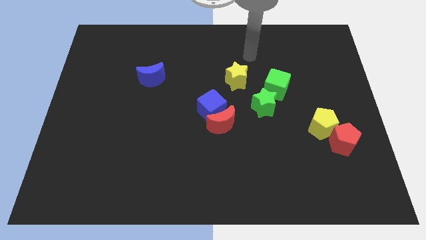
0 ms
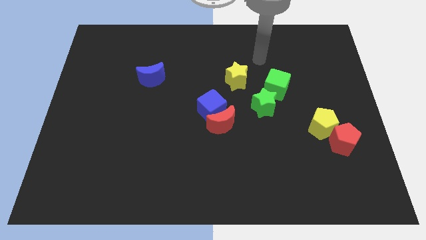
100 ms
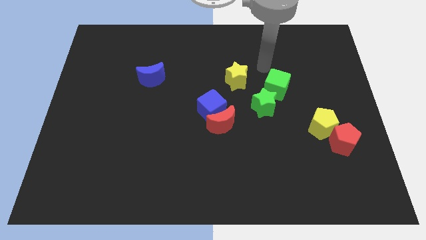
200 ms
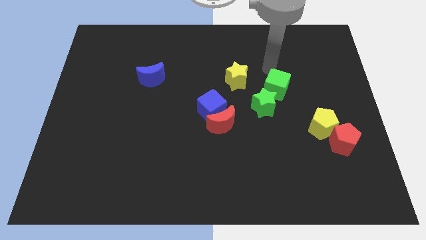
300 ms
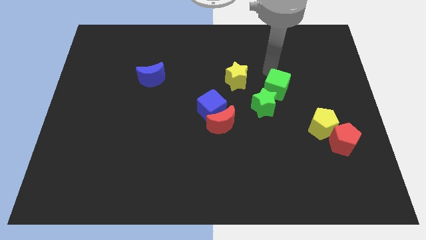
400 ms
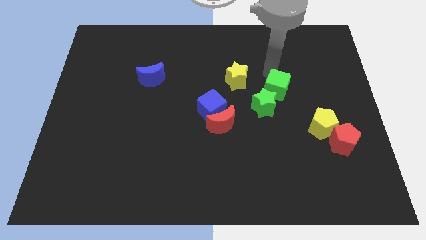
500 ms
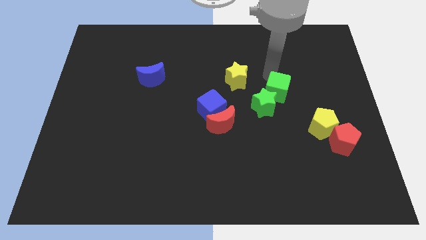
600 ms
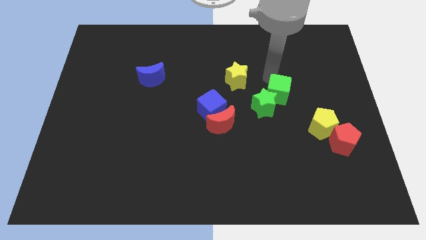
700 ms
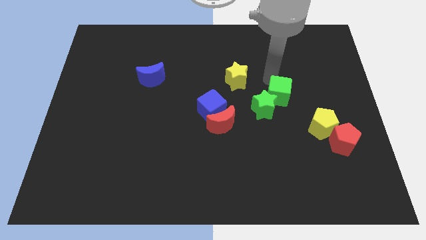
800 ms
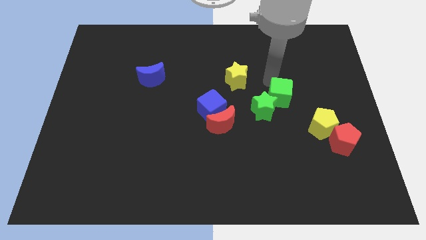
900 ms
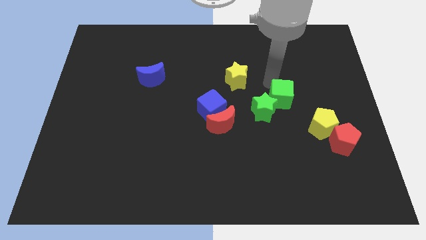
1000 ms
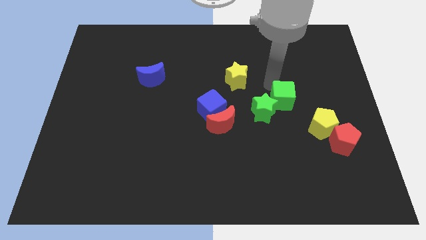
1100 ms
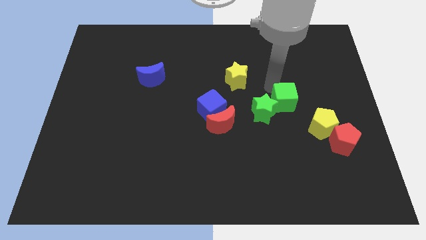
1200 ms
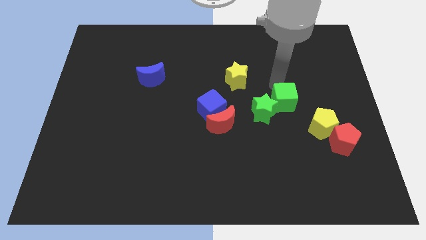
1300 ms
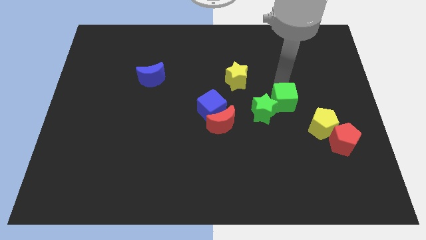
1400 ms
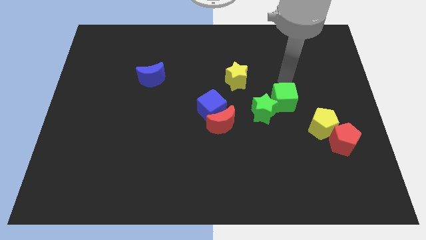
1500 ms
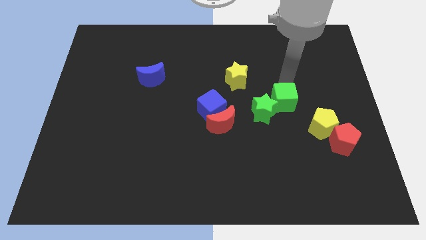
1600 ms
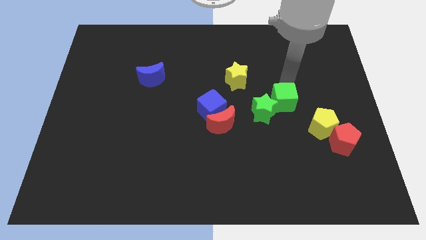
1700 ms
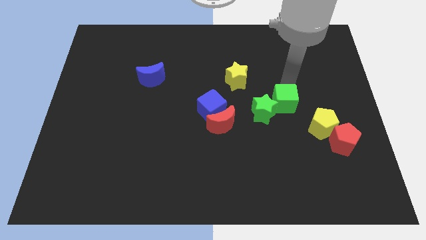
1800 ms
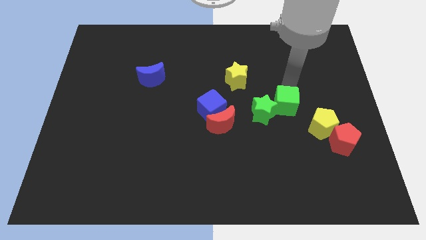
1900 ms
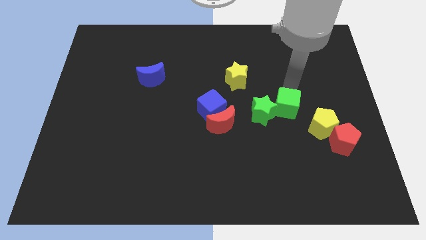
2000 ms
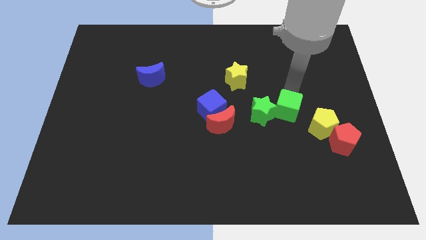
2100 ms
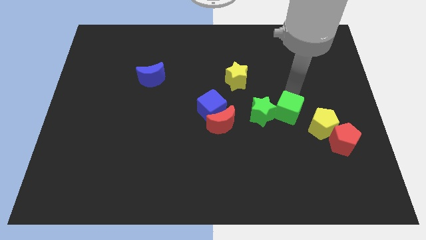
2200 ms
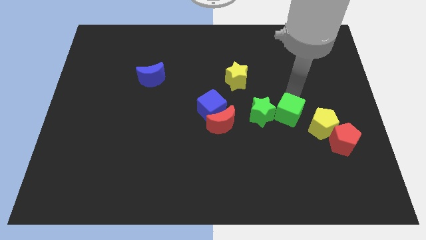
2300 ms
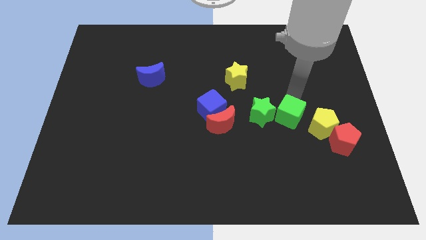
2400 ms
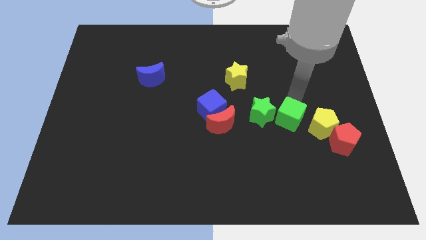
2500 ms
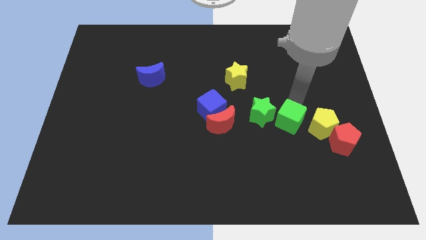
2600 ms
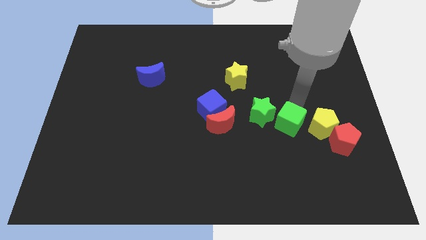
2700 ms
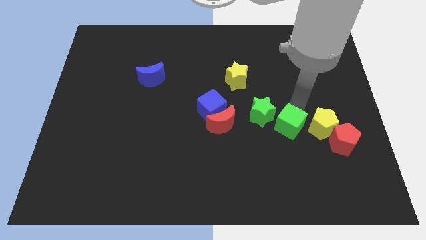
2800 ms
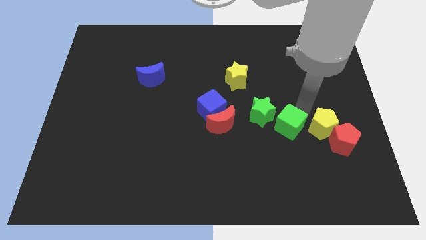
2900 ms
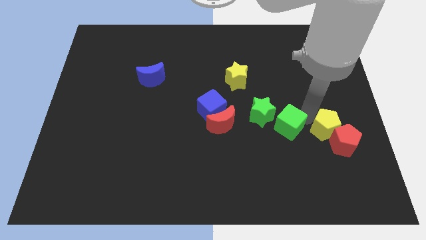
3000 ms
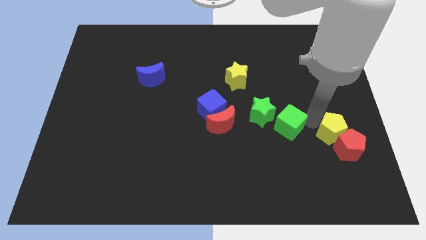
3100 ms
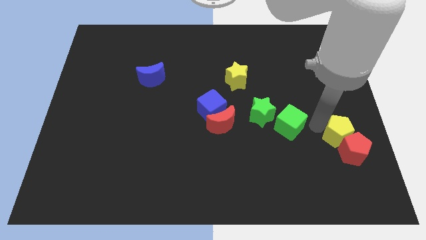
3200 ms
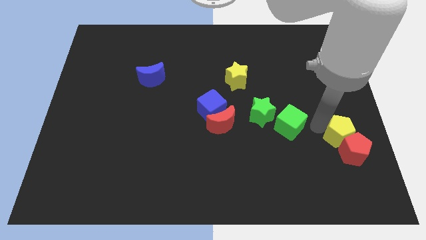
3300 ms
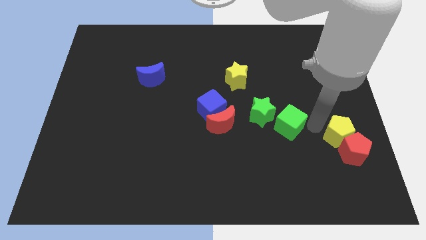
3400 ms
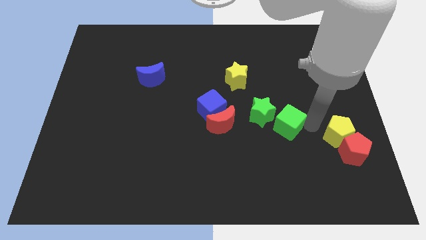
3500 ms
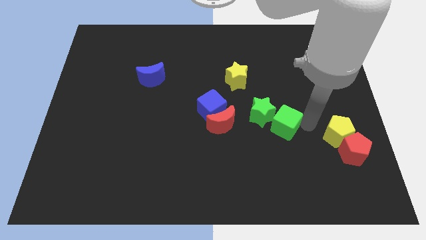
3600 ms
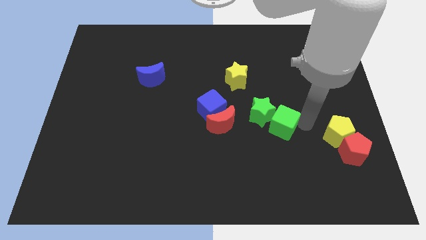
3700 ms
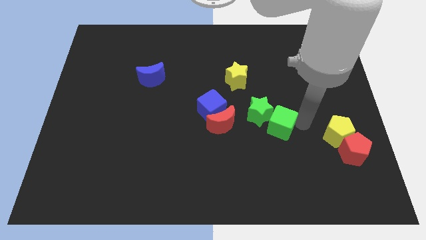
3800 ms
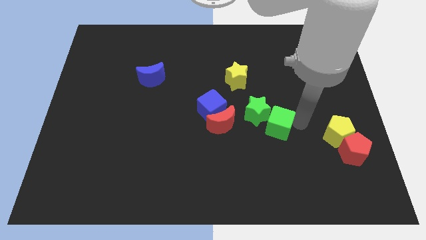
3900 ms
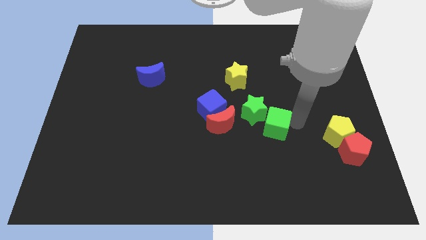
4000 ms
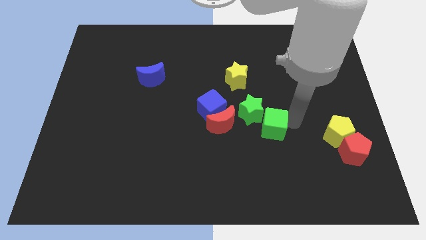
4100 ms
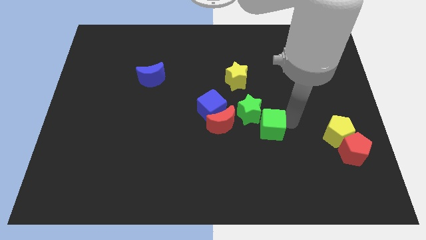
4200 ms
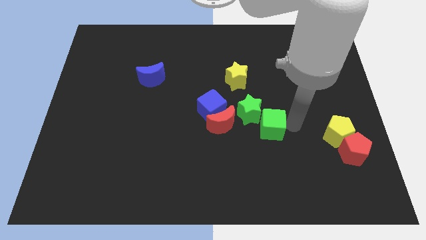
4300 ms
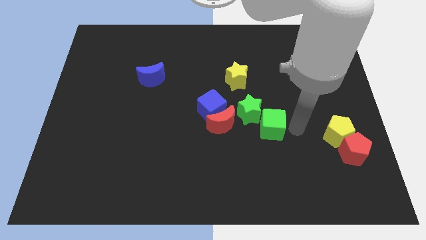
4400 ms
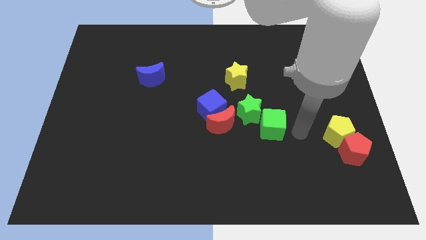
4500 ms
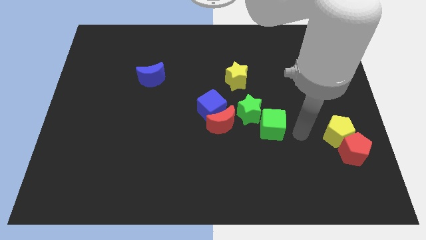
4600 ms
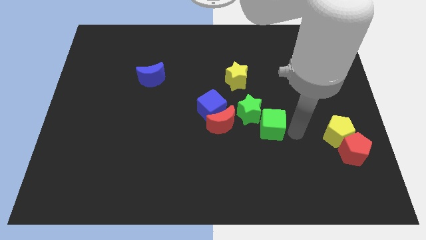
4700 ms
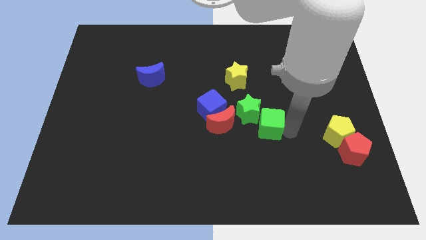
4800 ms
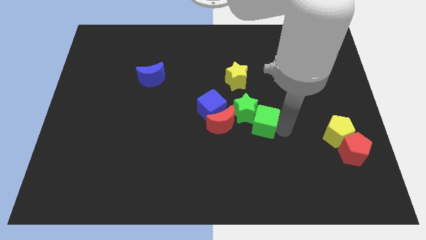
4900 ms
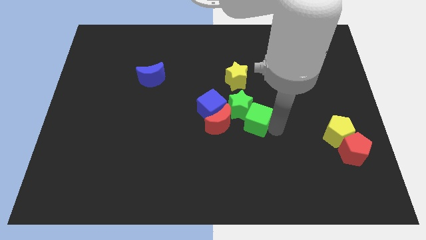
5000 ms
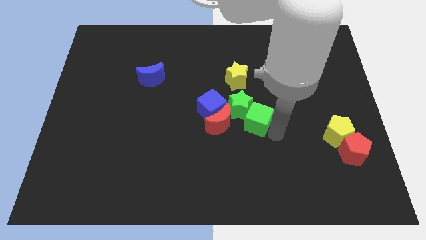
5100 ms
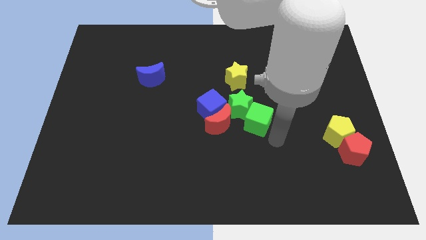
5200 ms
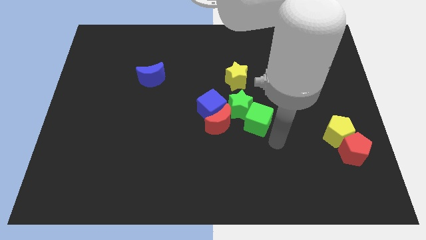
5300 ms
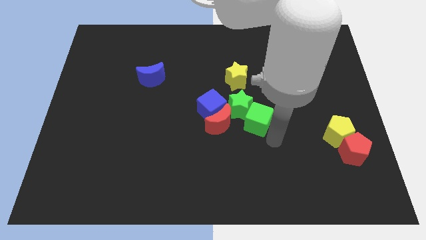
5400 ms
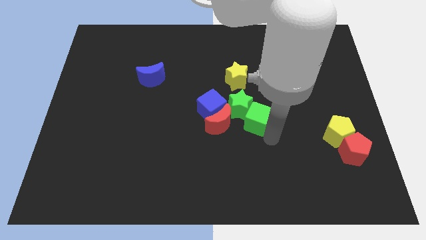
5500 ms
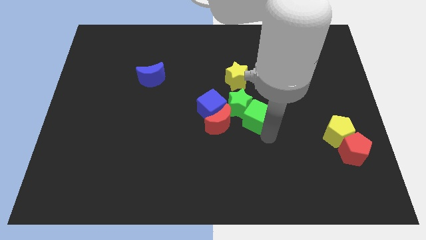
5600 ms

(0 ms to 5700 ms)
slide the green cube to the top right side of the red moon

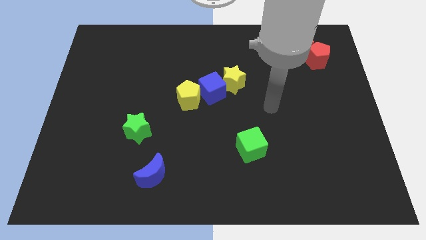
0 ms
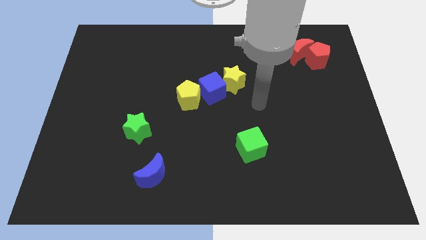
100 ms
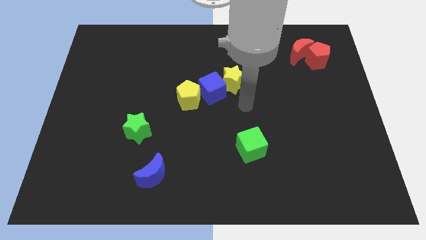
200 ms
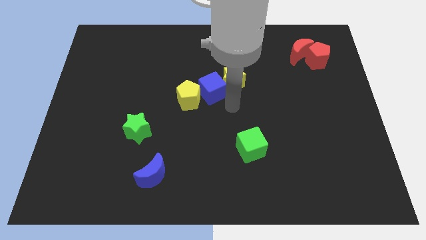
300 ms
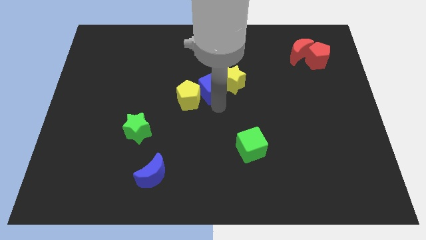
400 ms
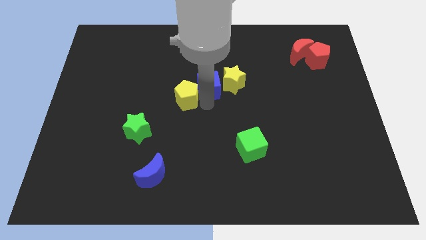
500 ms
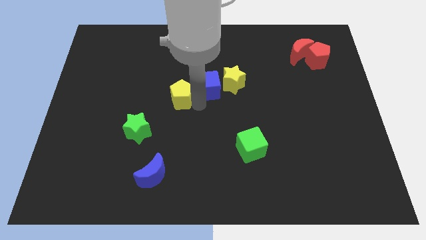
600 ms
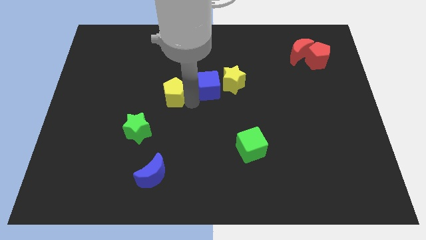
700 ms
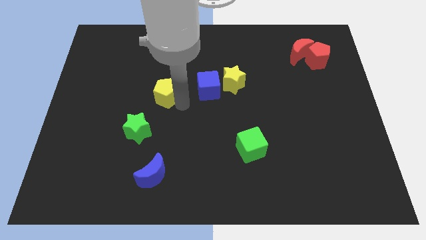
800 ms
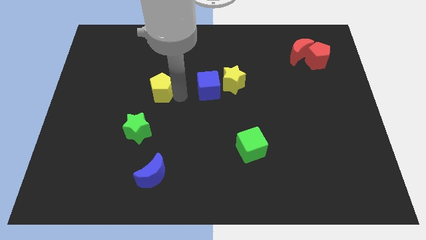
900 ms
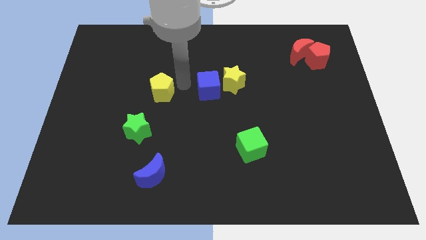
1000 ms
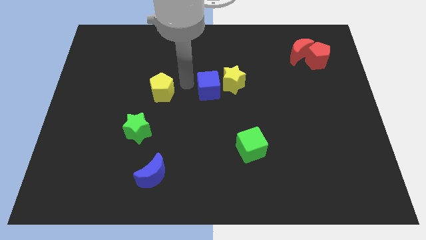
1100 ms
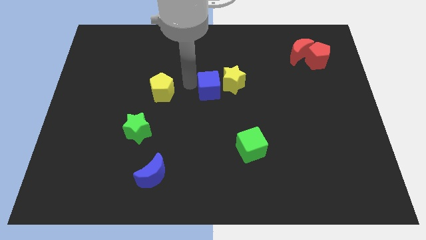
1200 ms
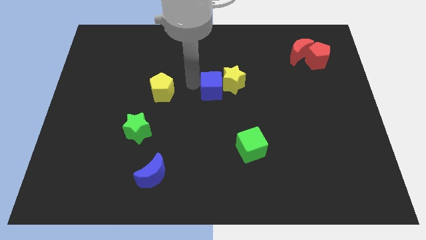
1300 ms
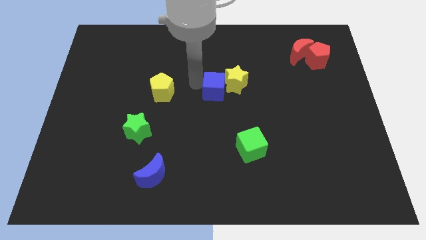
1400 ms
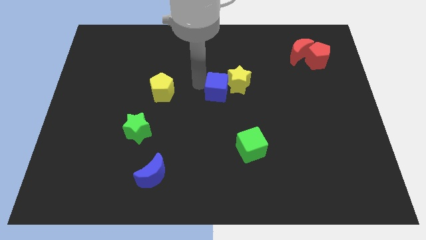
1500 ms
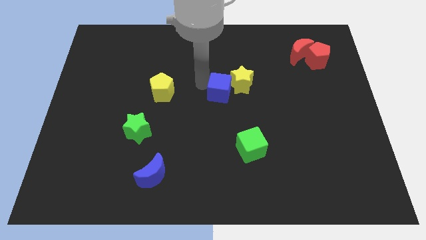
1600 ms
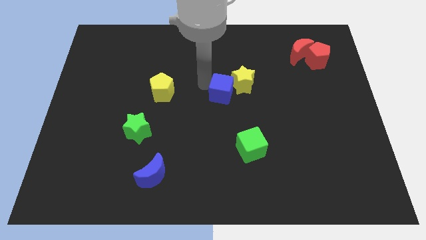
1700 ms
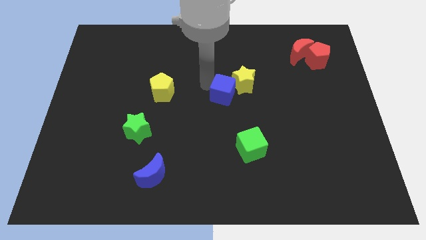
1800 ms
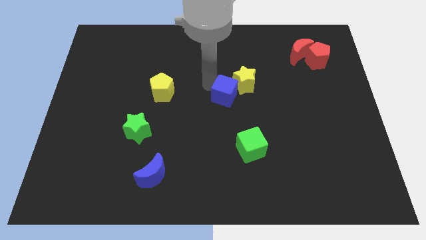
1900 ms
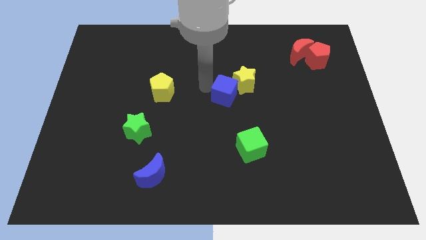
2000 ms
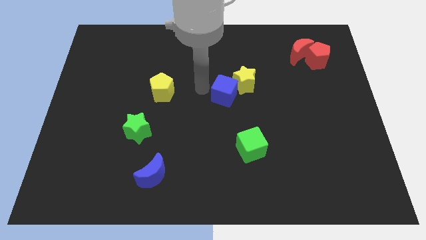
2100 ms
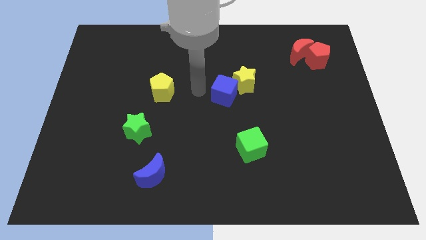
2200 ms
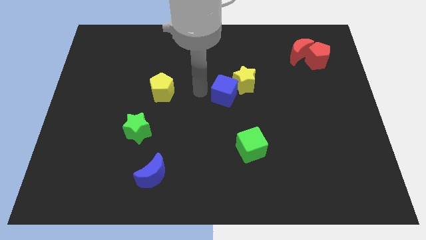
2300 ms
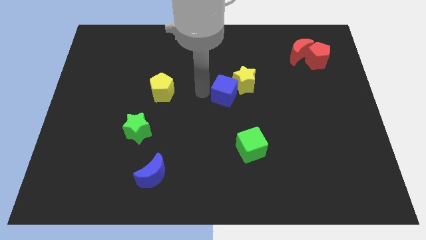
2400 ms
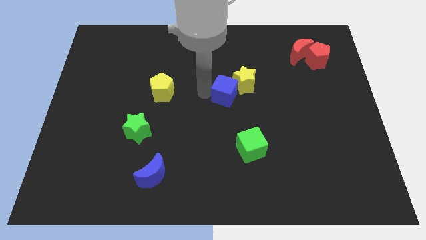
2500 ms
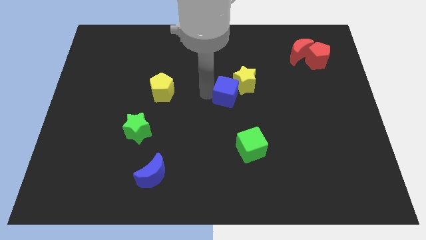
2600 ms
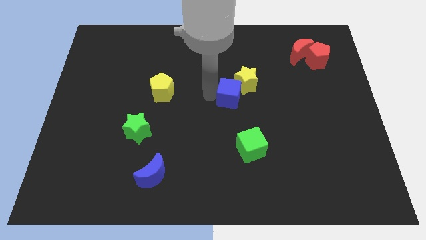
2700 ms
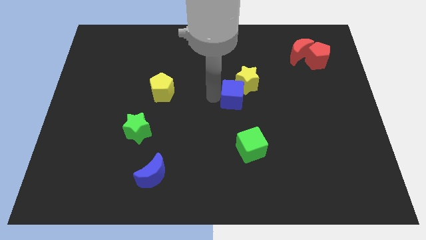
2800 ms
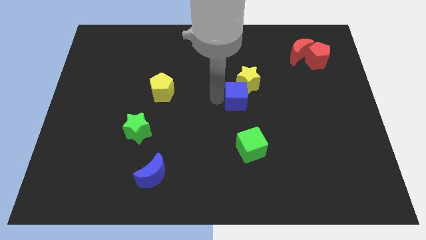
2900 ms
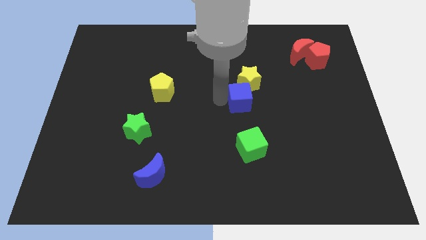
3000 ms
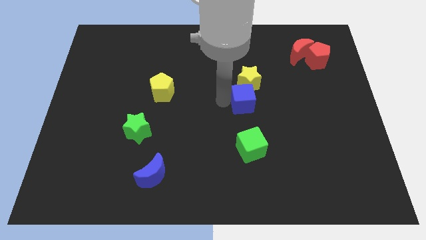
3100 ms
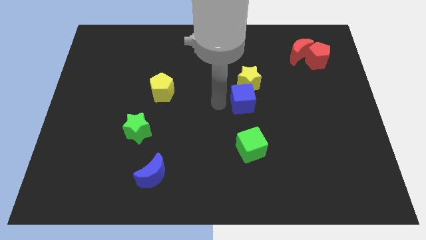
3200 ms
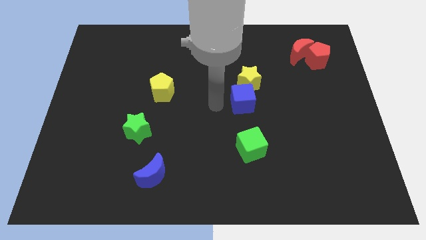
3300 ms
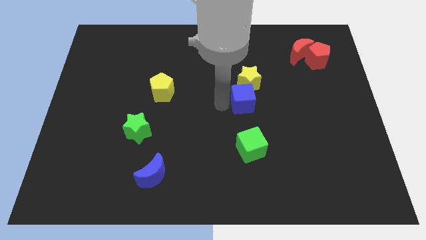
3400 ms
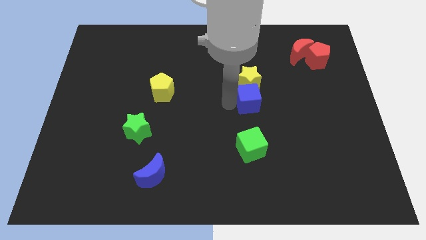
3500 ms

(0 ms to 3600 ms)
move the blue cube to the bottom right of the yellow star
